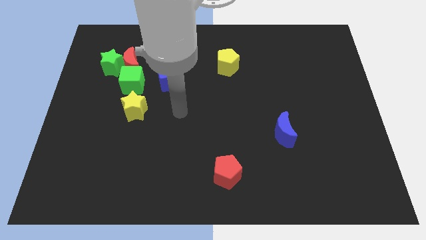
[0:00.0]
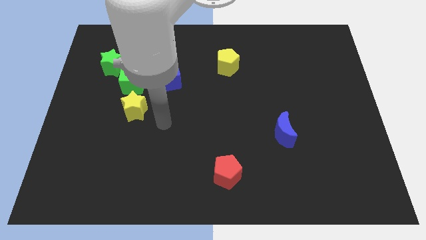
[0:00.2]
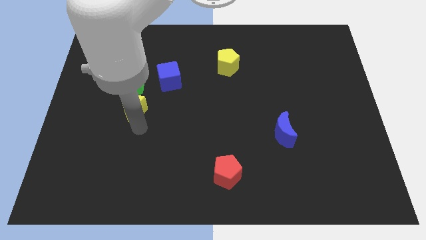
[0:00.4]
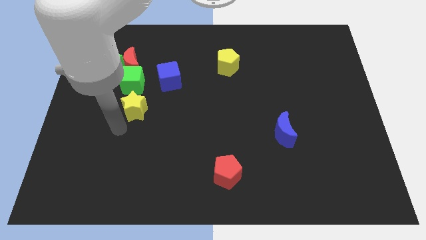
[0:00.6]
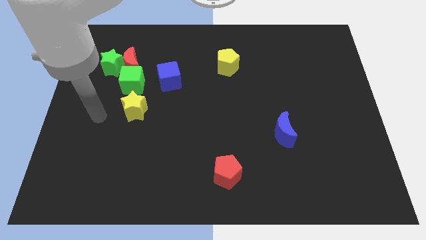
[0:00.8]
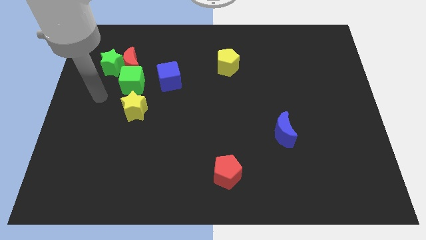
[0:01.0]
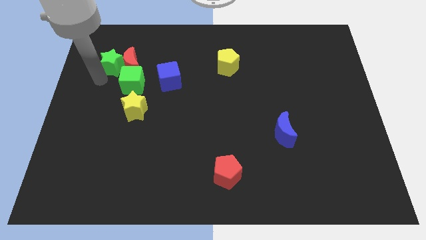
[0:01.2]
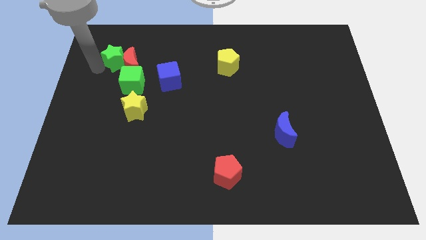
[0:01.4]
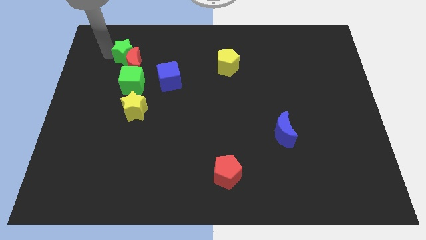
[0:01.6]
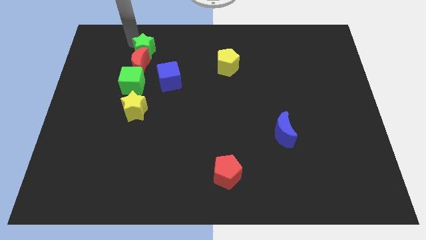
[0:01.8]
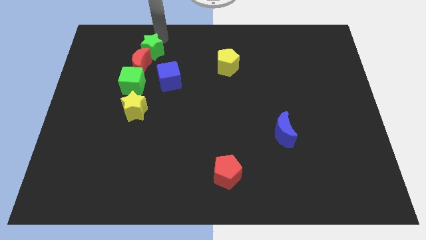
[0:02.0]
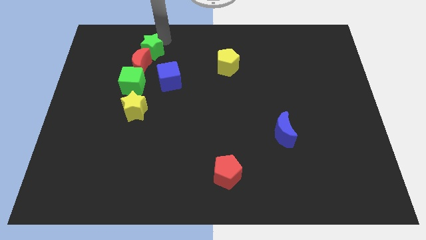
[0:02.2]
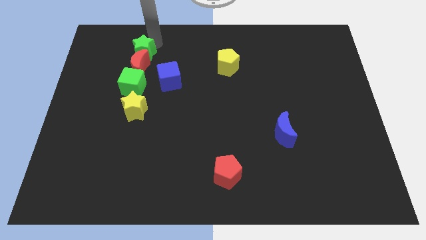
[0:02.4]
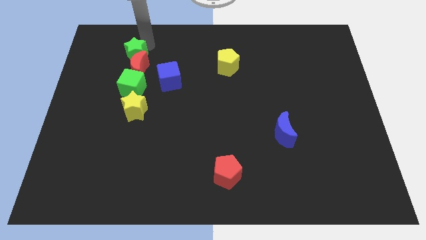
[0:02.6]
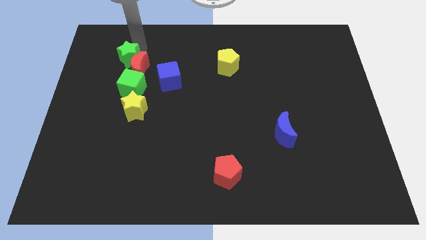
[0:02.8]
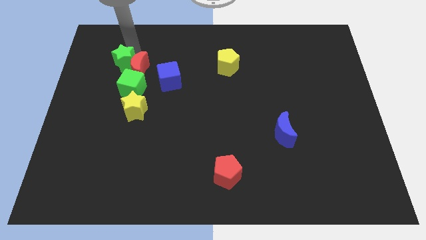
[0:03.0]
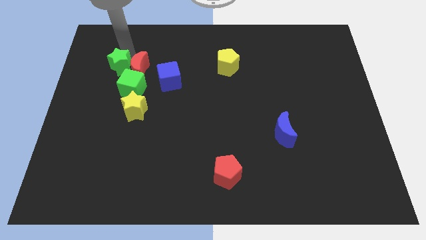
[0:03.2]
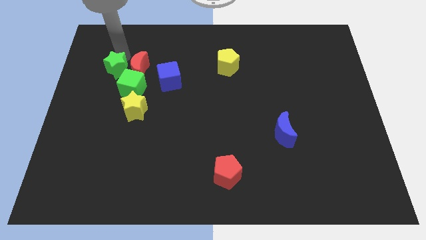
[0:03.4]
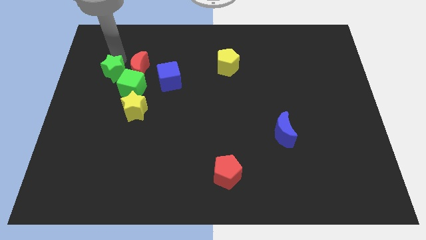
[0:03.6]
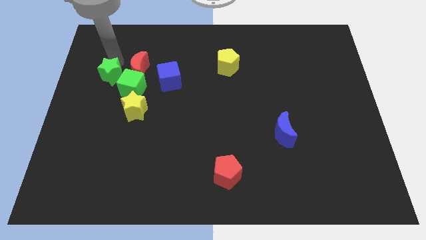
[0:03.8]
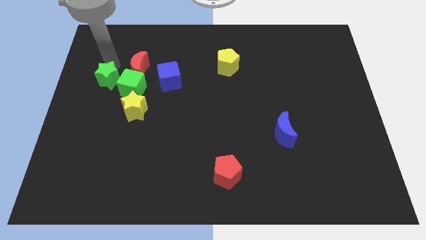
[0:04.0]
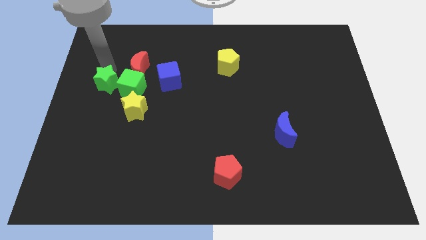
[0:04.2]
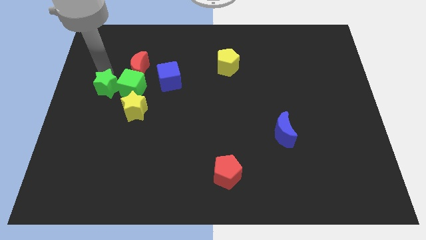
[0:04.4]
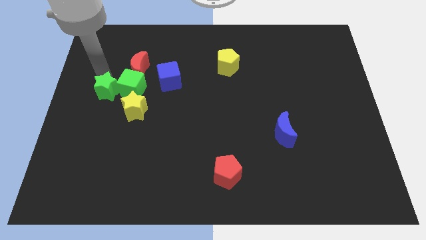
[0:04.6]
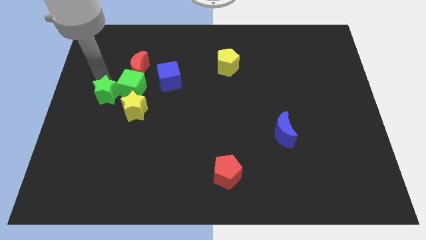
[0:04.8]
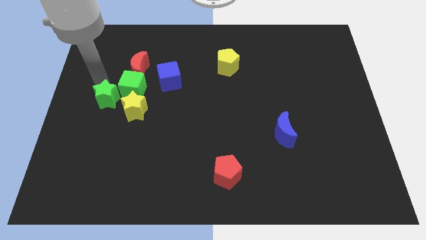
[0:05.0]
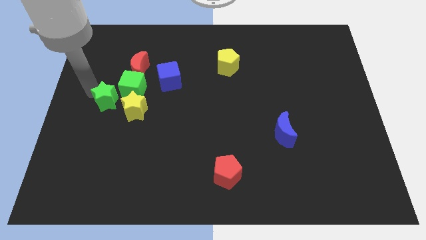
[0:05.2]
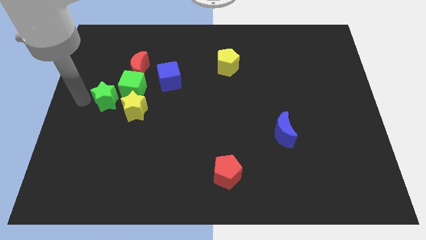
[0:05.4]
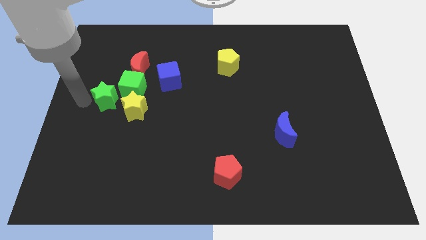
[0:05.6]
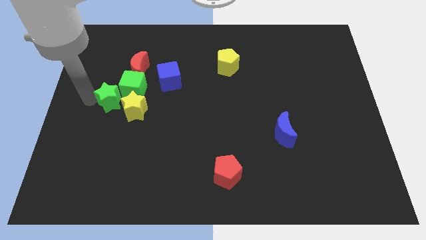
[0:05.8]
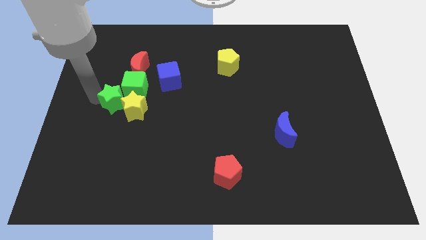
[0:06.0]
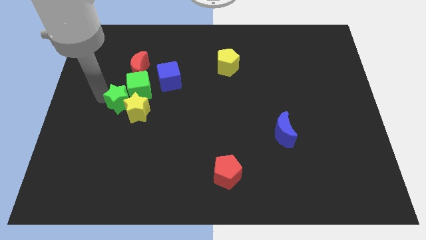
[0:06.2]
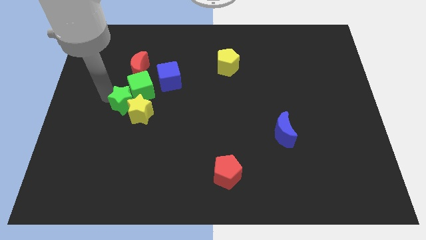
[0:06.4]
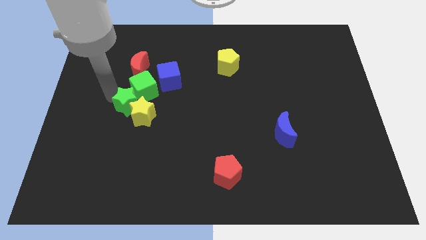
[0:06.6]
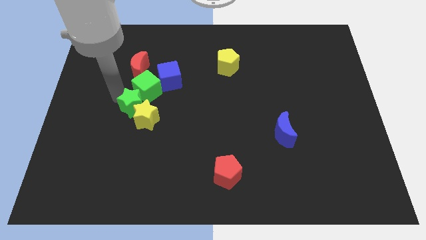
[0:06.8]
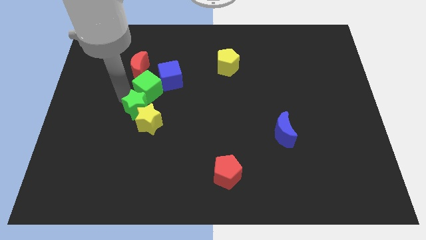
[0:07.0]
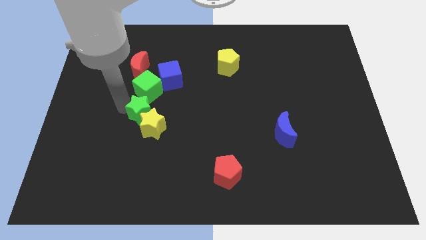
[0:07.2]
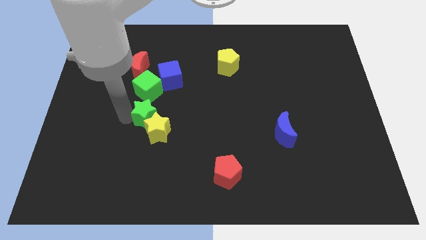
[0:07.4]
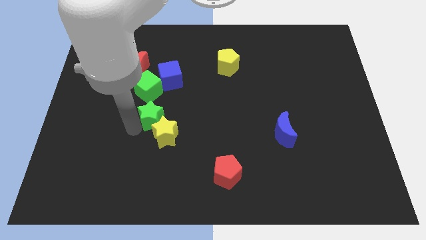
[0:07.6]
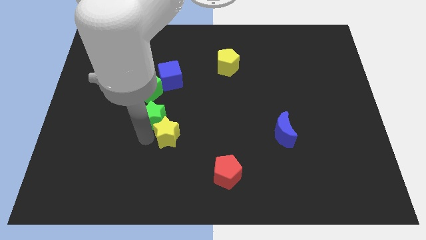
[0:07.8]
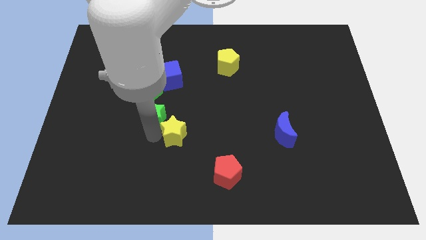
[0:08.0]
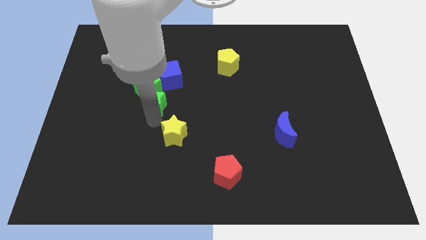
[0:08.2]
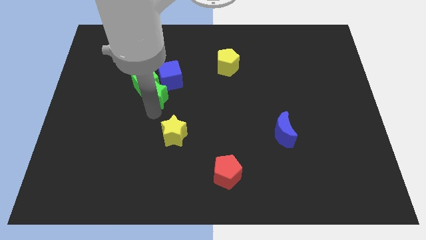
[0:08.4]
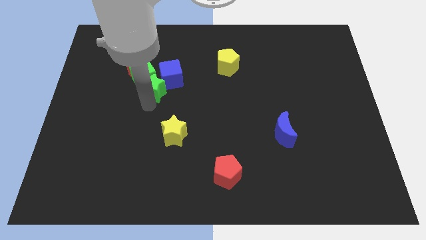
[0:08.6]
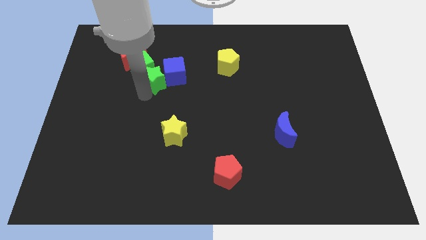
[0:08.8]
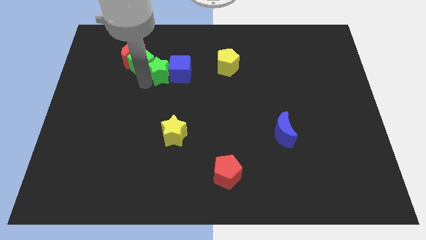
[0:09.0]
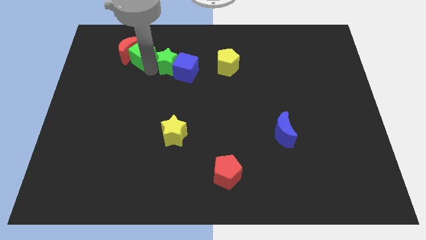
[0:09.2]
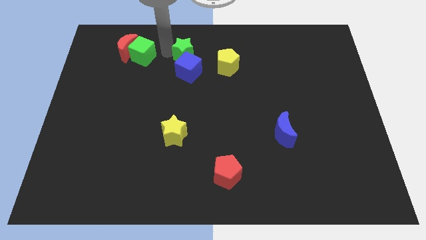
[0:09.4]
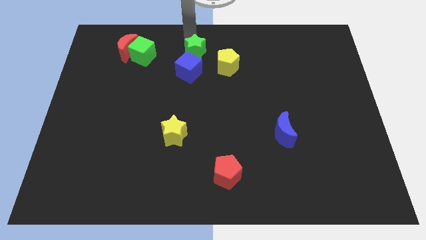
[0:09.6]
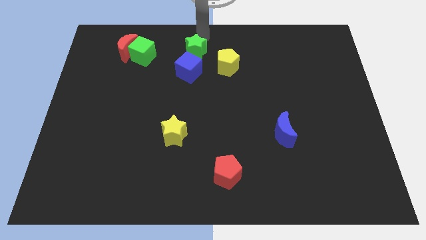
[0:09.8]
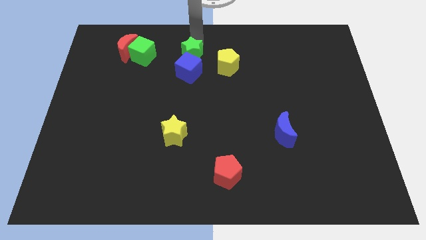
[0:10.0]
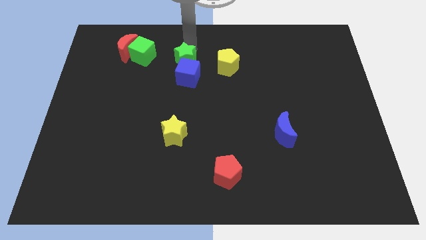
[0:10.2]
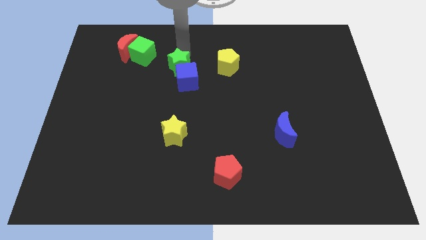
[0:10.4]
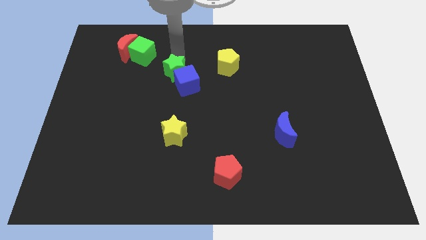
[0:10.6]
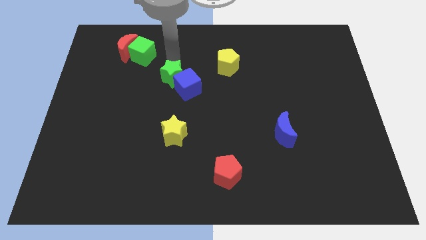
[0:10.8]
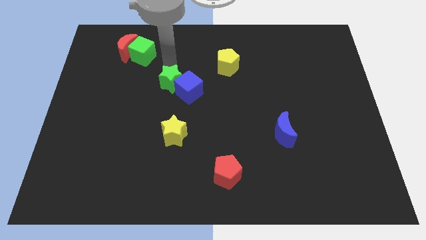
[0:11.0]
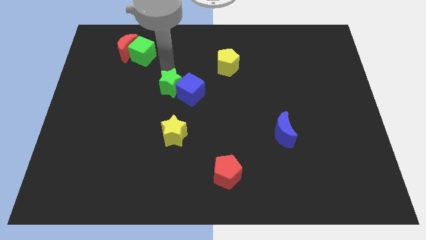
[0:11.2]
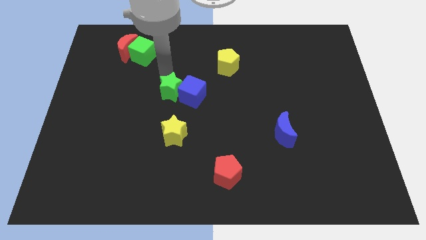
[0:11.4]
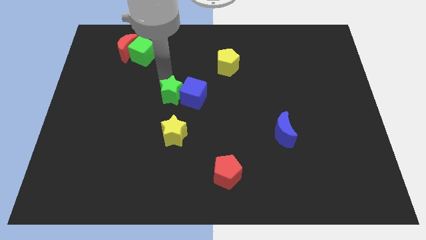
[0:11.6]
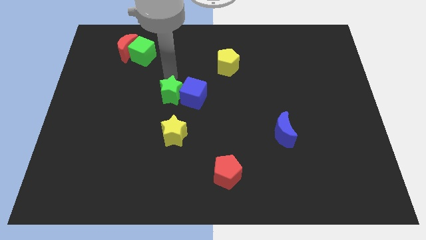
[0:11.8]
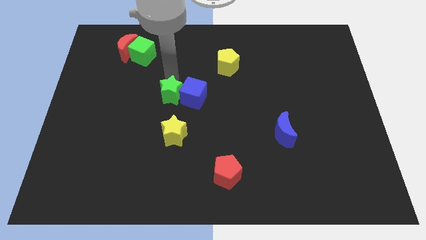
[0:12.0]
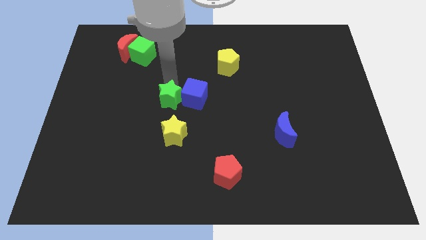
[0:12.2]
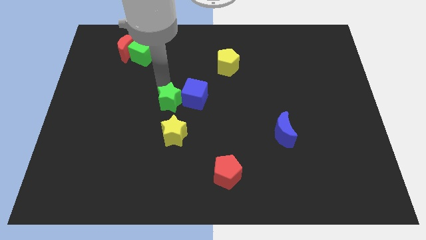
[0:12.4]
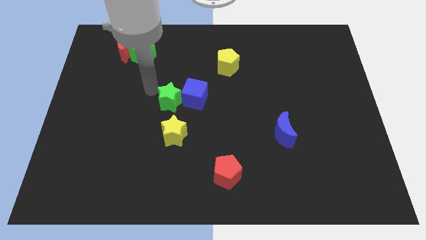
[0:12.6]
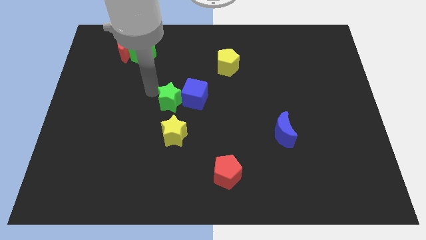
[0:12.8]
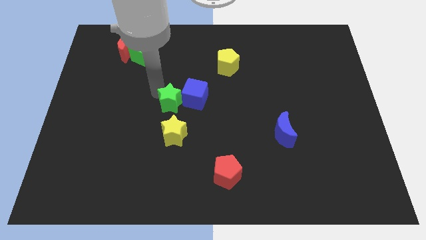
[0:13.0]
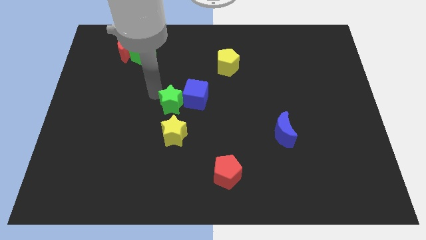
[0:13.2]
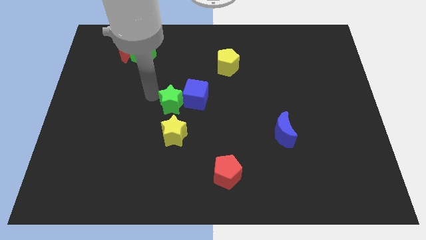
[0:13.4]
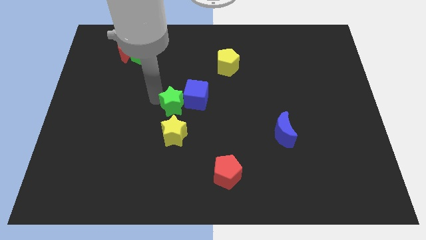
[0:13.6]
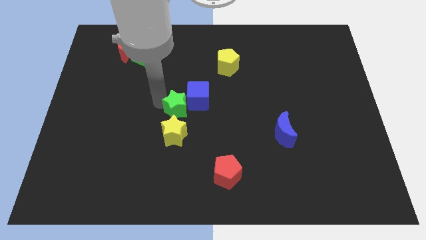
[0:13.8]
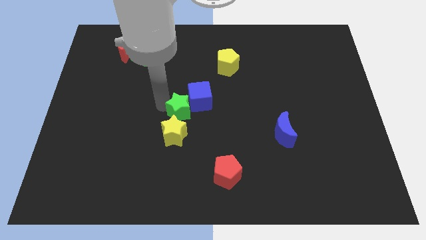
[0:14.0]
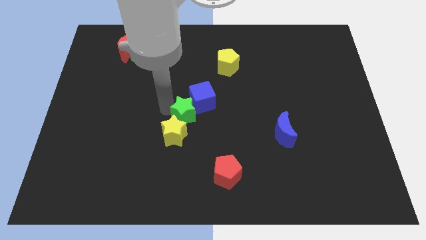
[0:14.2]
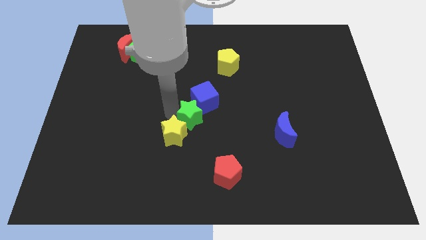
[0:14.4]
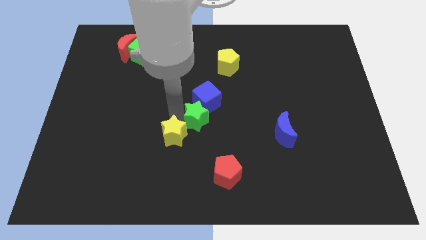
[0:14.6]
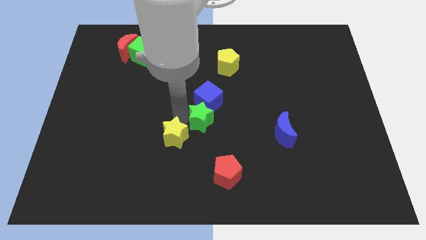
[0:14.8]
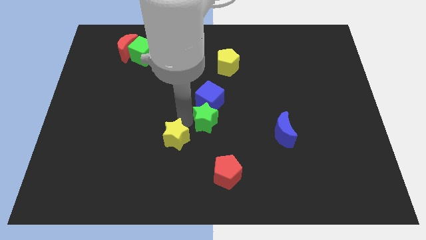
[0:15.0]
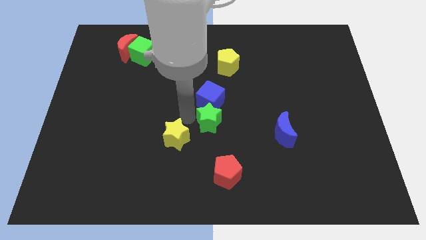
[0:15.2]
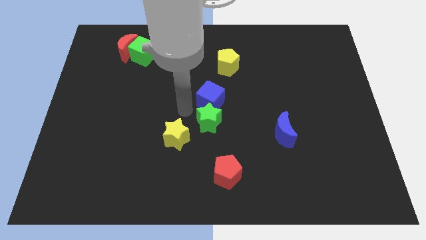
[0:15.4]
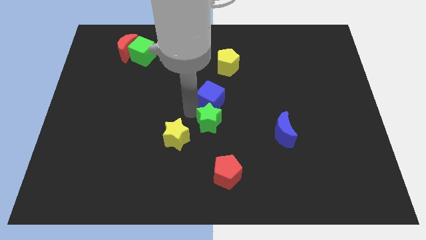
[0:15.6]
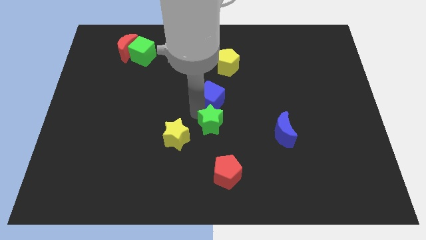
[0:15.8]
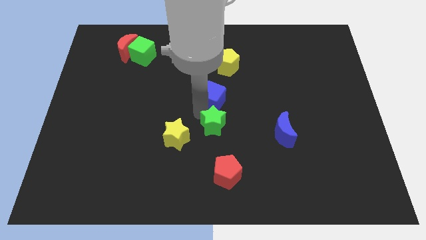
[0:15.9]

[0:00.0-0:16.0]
put the green star just left of the blue moon
